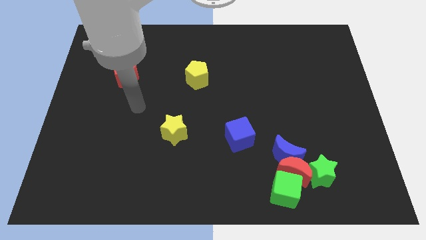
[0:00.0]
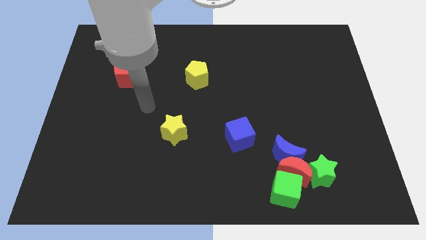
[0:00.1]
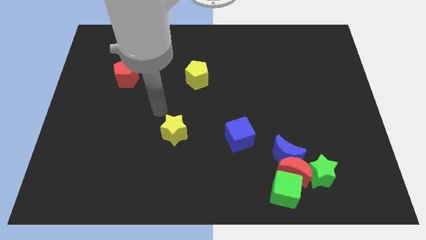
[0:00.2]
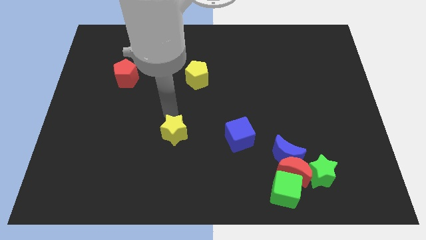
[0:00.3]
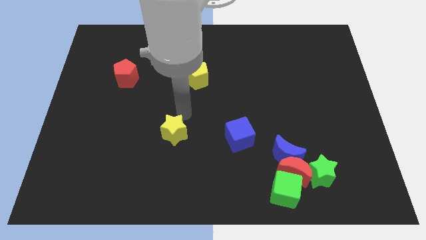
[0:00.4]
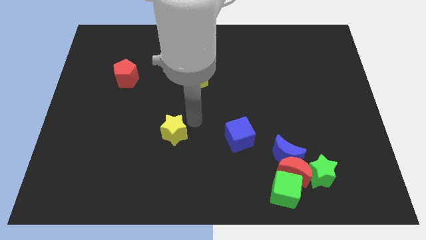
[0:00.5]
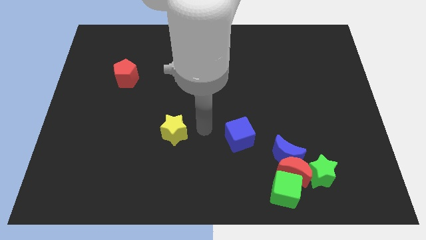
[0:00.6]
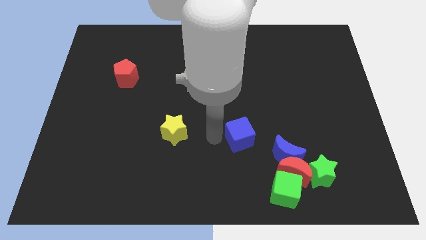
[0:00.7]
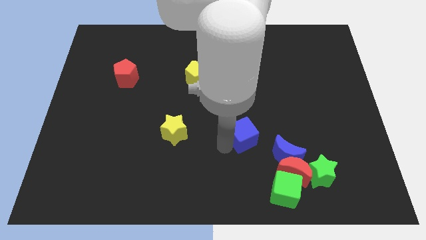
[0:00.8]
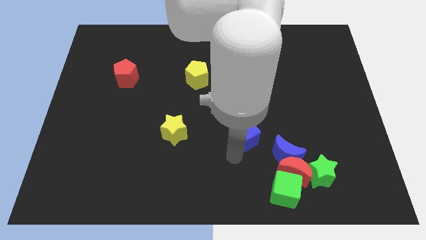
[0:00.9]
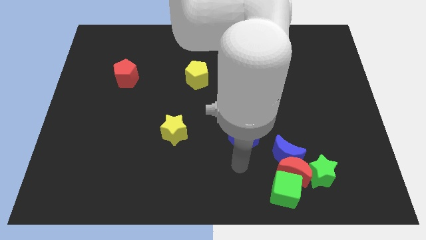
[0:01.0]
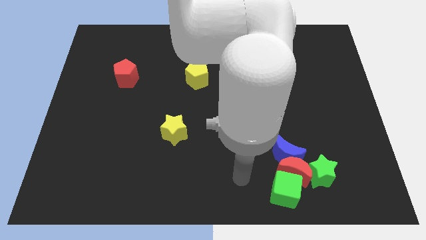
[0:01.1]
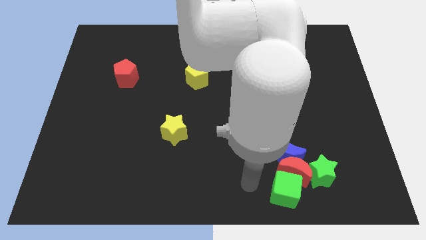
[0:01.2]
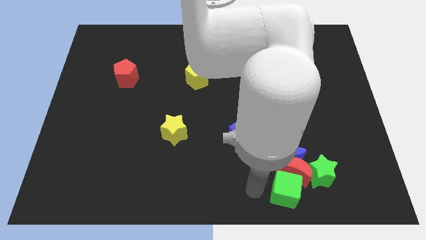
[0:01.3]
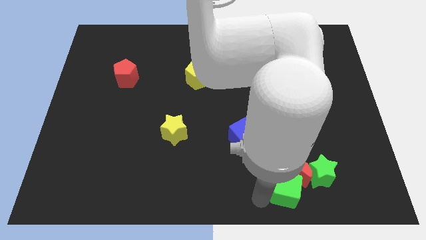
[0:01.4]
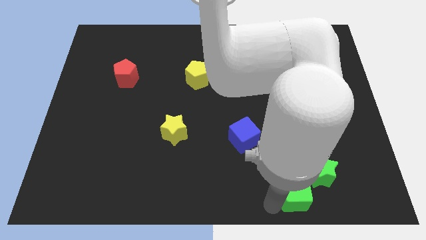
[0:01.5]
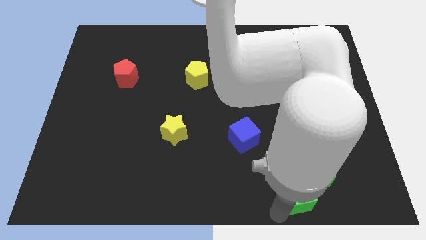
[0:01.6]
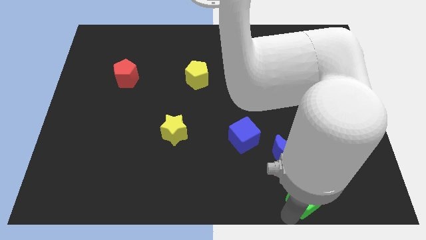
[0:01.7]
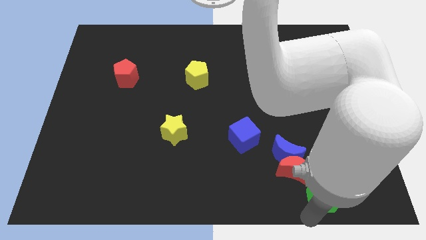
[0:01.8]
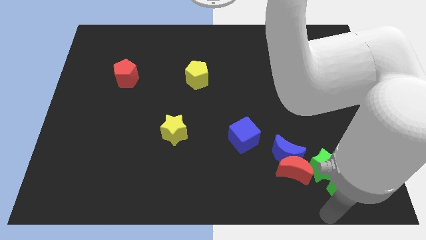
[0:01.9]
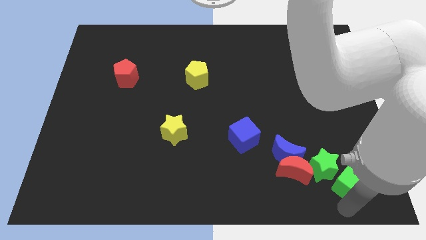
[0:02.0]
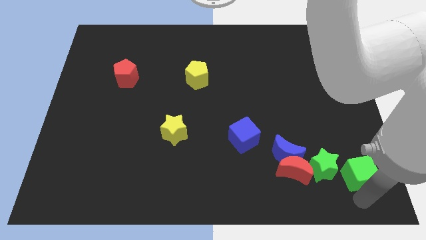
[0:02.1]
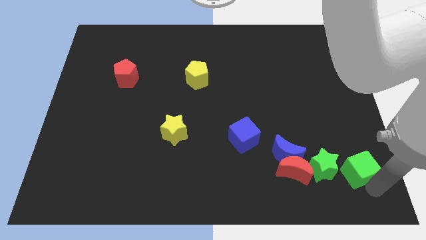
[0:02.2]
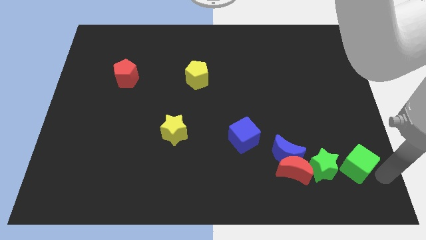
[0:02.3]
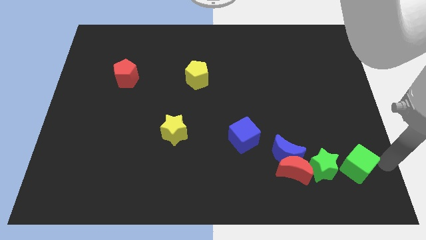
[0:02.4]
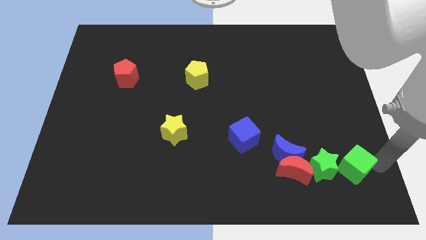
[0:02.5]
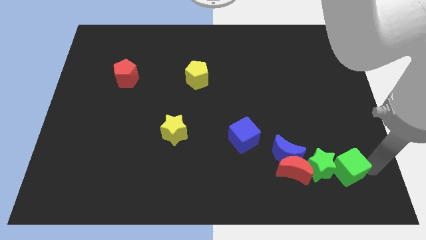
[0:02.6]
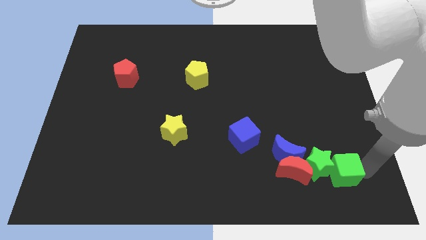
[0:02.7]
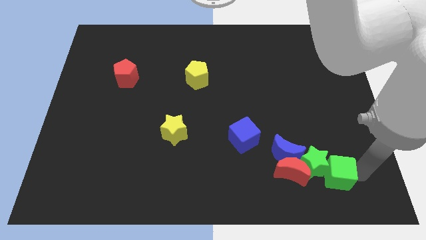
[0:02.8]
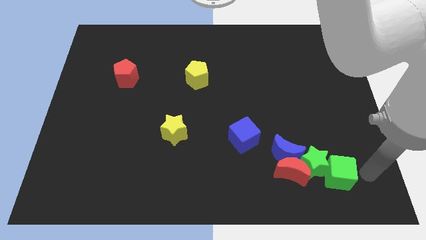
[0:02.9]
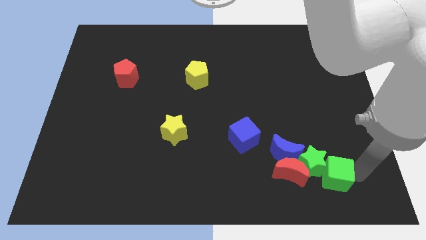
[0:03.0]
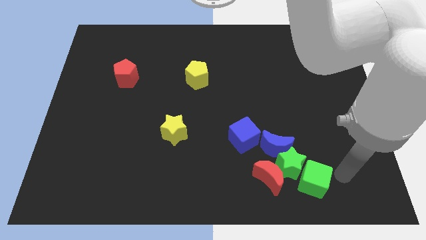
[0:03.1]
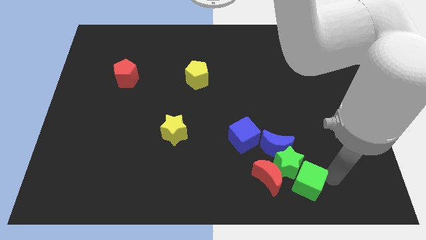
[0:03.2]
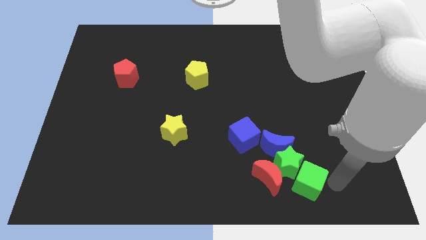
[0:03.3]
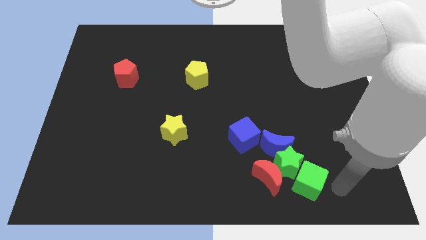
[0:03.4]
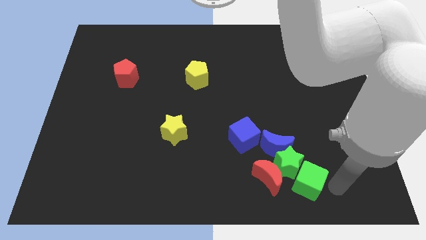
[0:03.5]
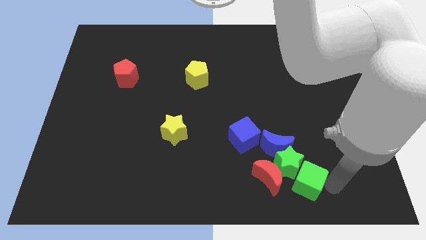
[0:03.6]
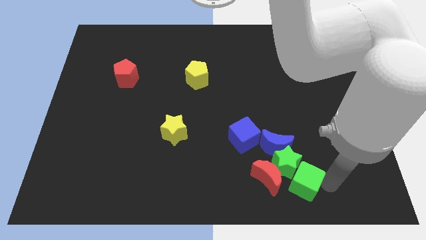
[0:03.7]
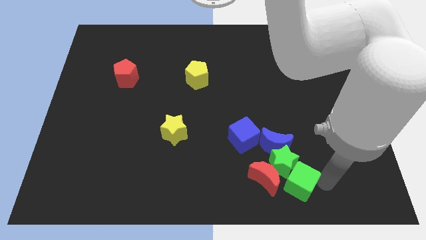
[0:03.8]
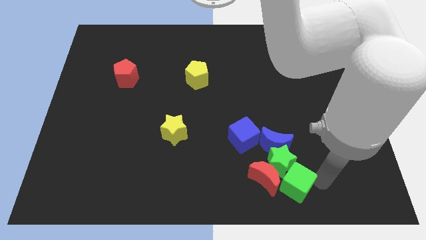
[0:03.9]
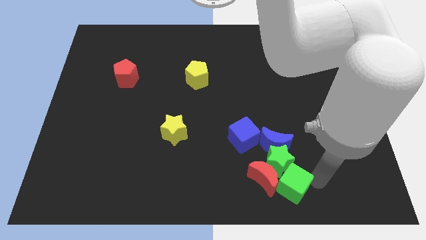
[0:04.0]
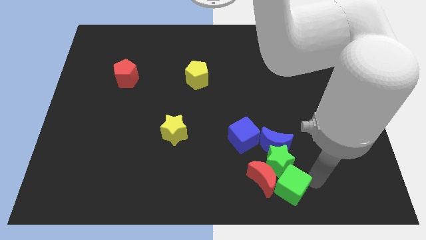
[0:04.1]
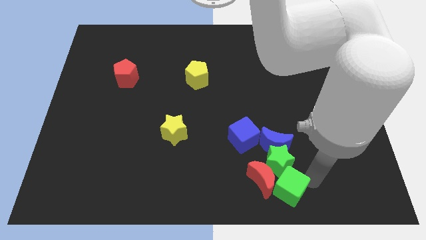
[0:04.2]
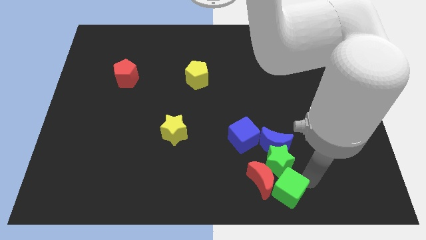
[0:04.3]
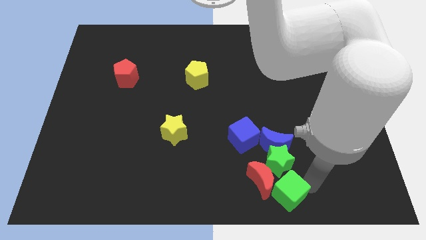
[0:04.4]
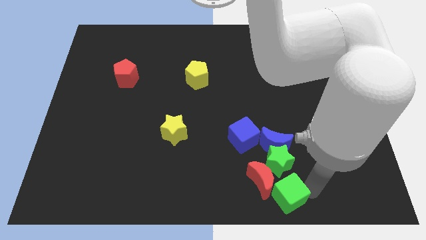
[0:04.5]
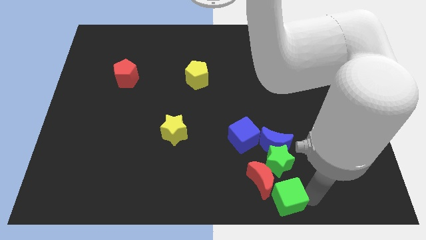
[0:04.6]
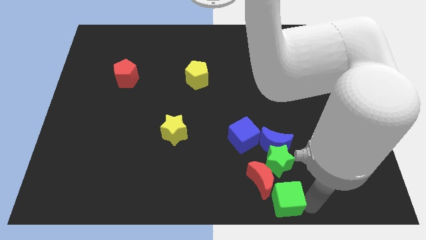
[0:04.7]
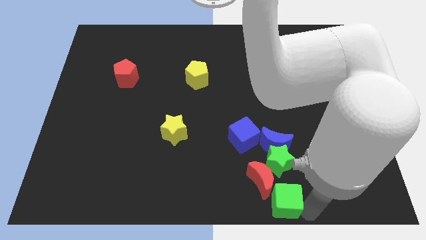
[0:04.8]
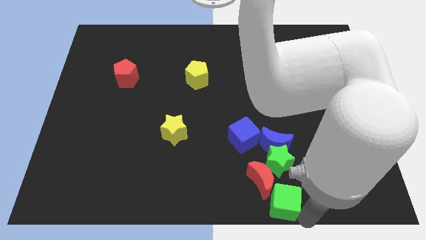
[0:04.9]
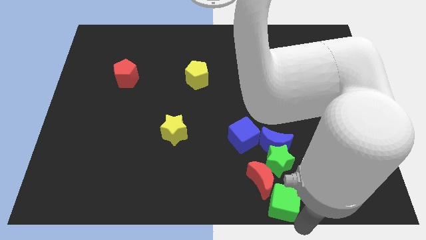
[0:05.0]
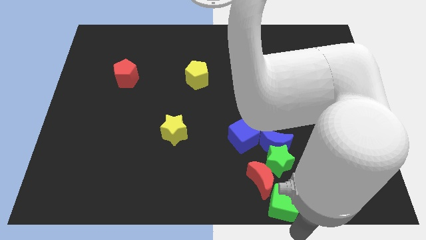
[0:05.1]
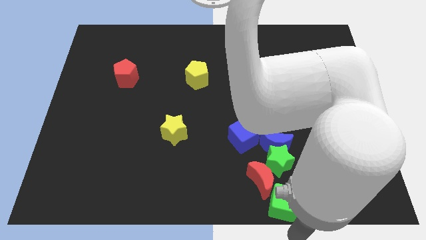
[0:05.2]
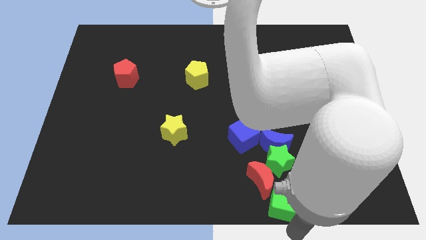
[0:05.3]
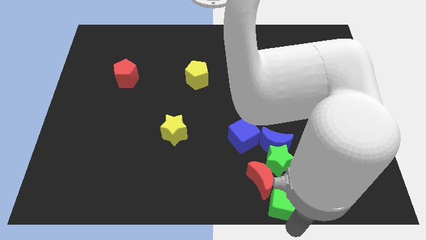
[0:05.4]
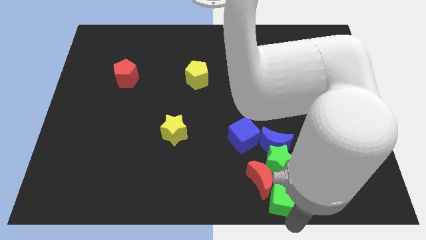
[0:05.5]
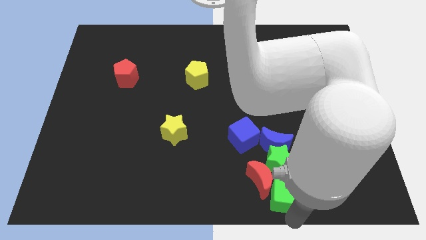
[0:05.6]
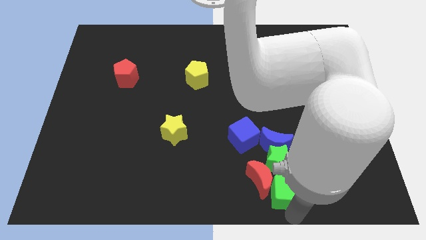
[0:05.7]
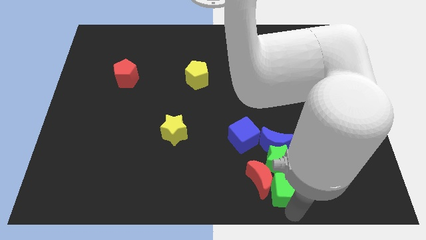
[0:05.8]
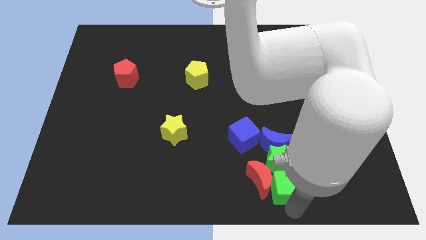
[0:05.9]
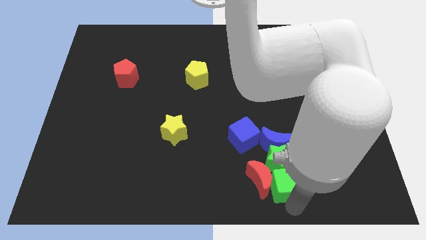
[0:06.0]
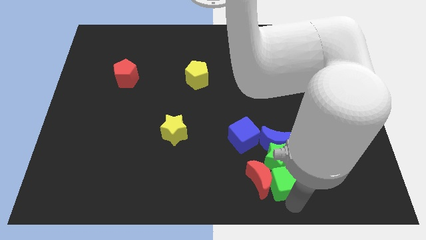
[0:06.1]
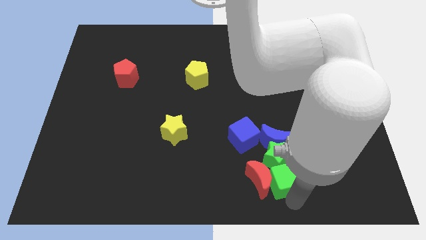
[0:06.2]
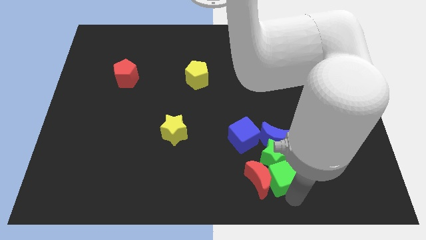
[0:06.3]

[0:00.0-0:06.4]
slide the green cube diagonally down and to the right of the blue cube
